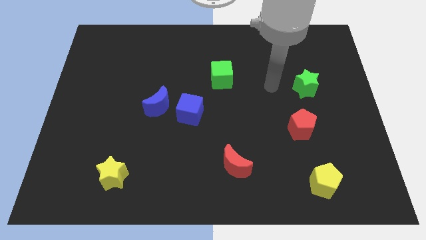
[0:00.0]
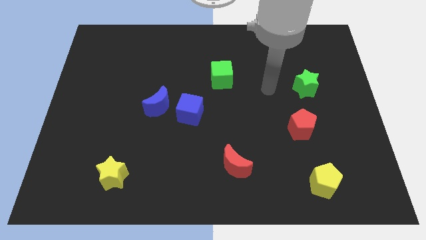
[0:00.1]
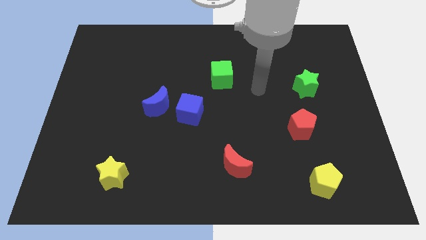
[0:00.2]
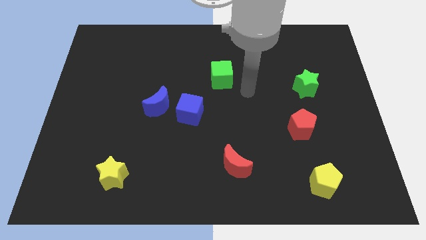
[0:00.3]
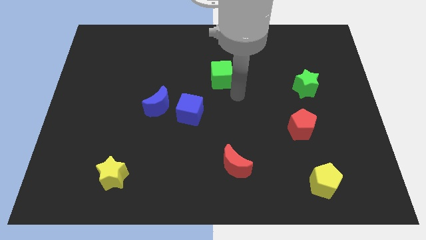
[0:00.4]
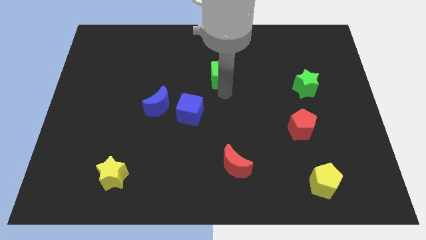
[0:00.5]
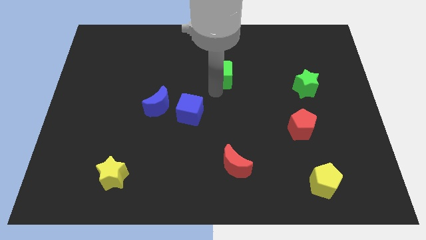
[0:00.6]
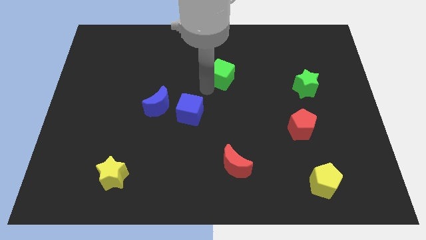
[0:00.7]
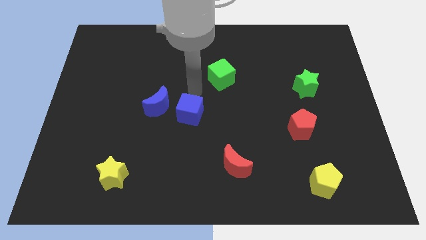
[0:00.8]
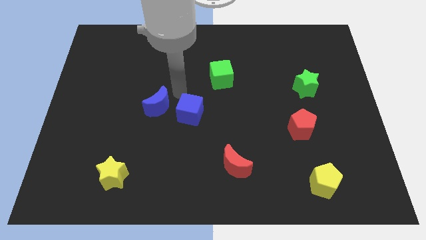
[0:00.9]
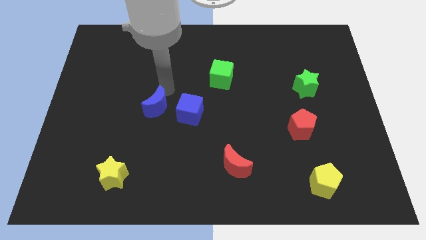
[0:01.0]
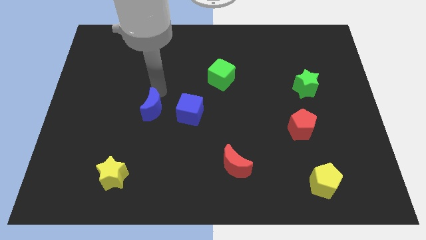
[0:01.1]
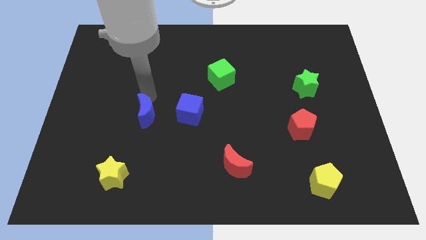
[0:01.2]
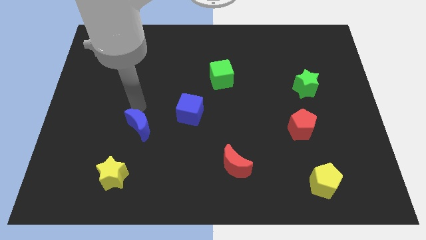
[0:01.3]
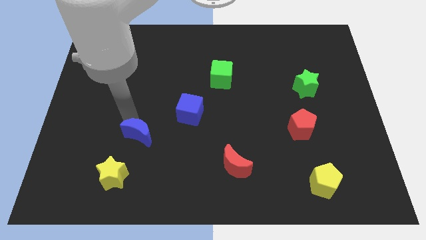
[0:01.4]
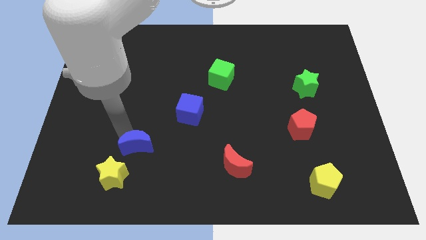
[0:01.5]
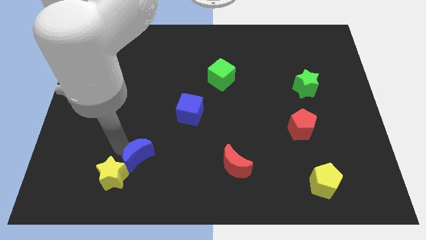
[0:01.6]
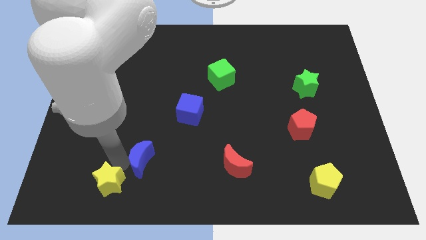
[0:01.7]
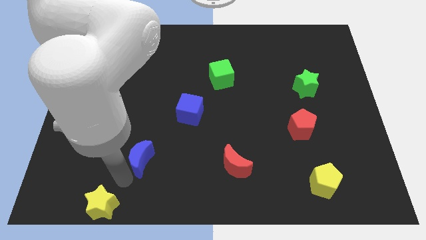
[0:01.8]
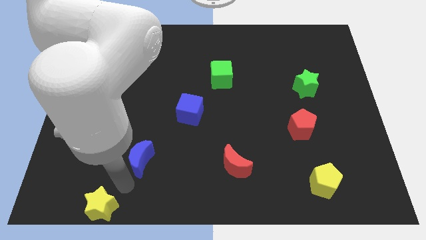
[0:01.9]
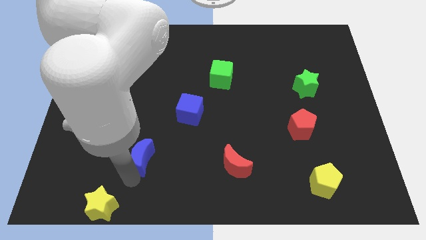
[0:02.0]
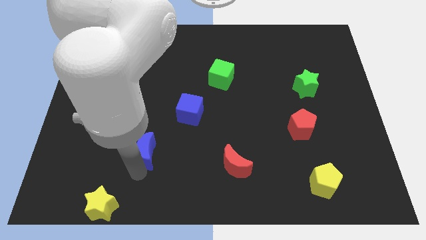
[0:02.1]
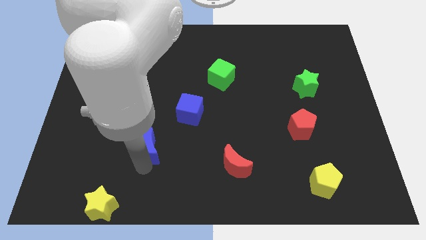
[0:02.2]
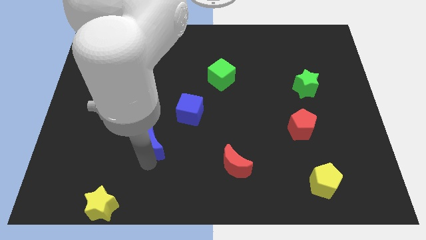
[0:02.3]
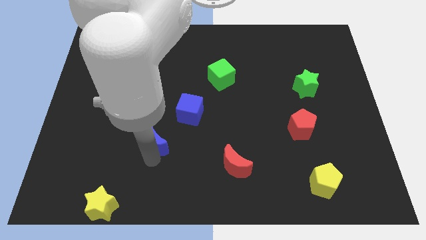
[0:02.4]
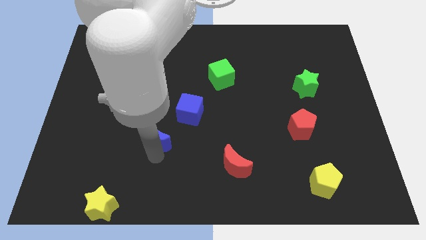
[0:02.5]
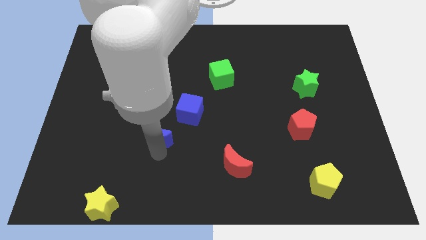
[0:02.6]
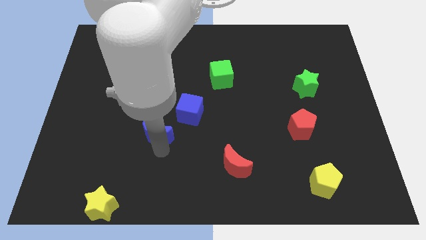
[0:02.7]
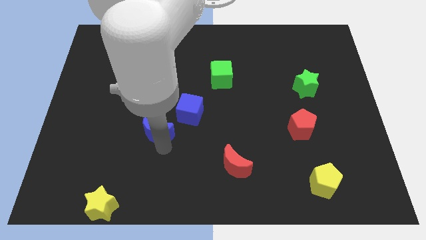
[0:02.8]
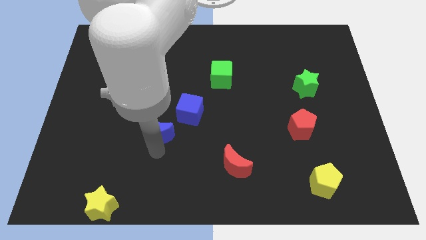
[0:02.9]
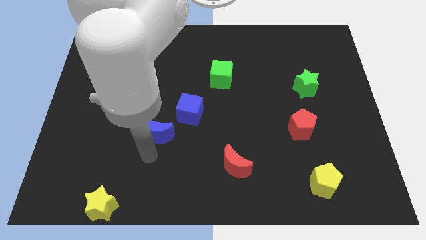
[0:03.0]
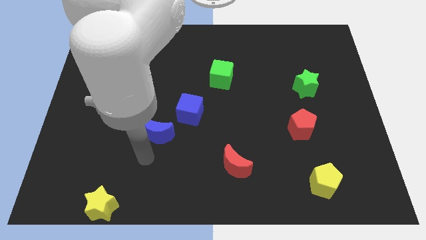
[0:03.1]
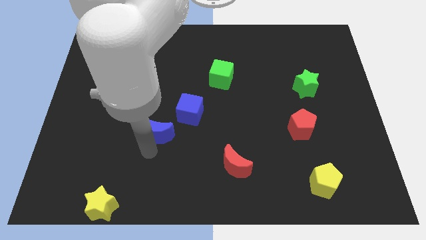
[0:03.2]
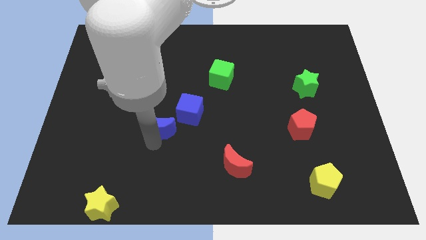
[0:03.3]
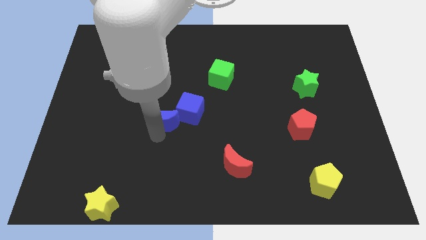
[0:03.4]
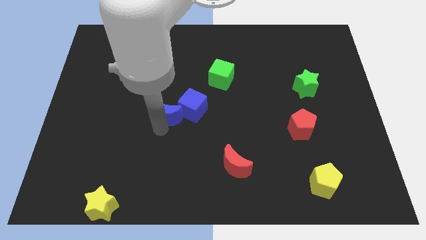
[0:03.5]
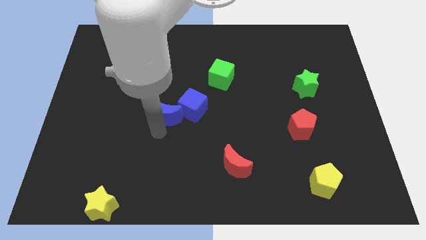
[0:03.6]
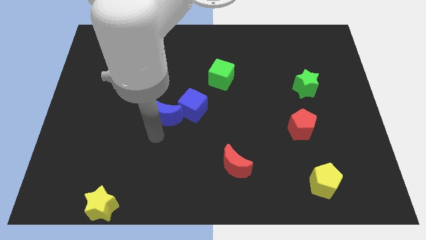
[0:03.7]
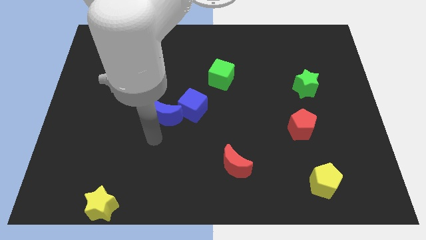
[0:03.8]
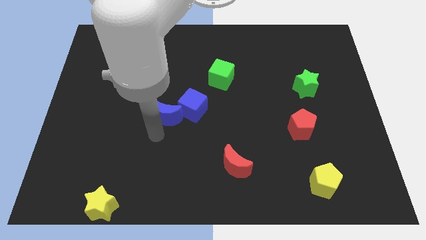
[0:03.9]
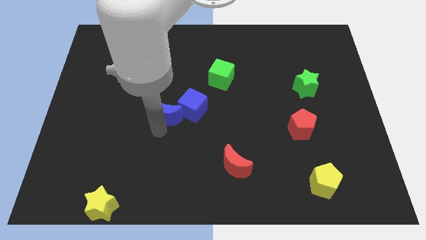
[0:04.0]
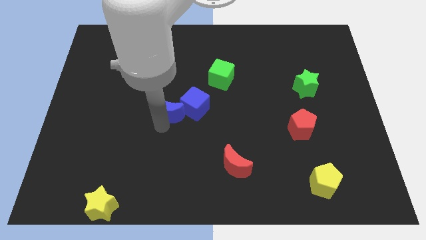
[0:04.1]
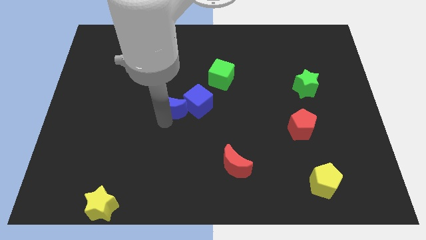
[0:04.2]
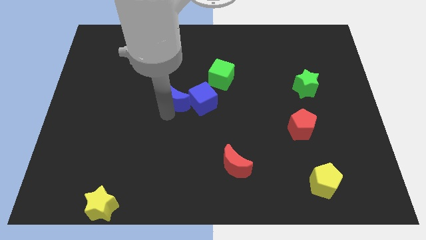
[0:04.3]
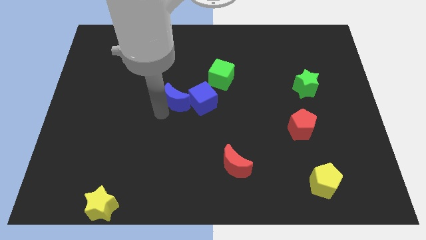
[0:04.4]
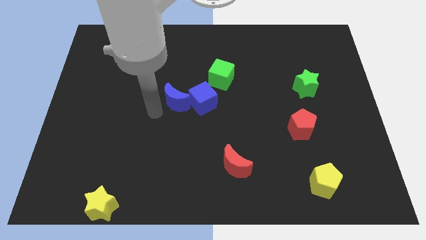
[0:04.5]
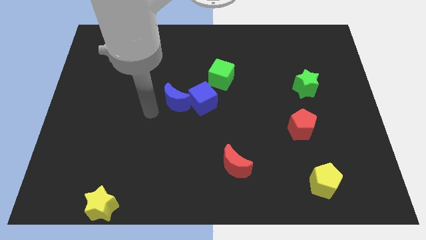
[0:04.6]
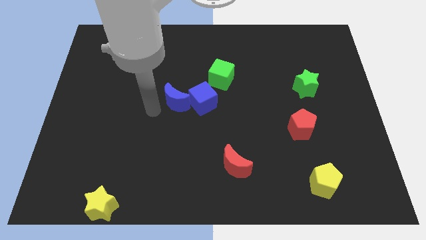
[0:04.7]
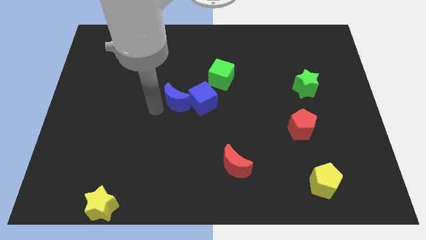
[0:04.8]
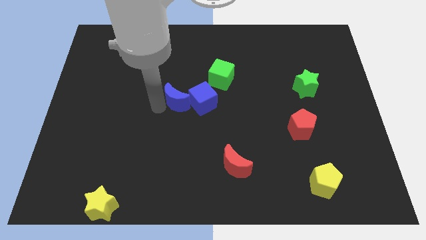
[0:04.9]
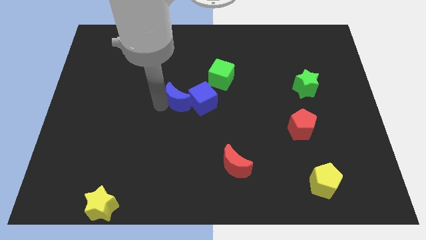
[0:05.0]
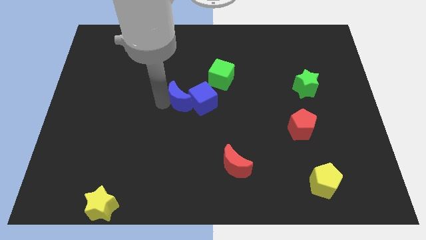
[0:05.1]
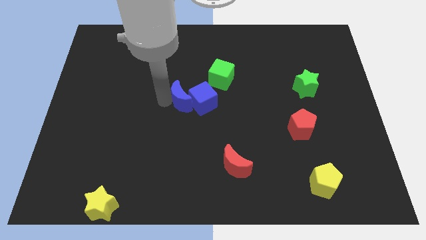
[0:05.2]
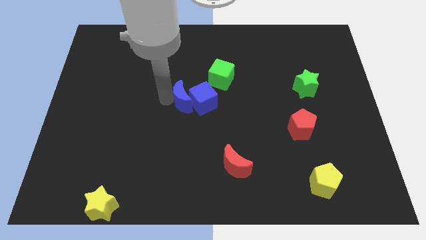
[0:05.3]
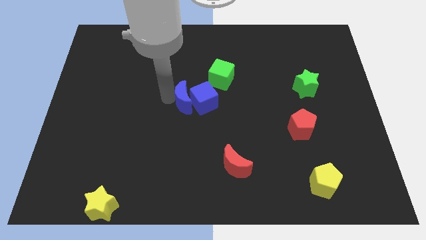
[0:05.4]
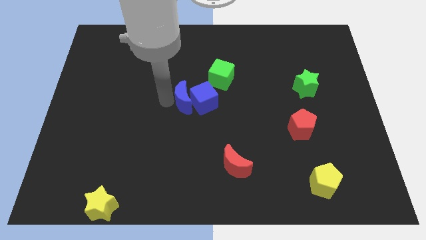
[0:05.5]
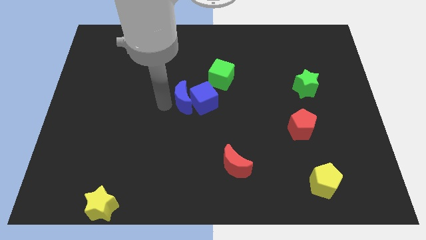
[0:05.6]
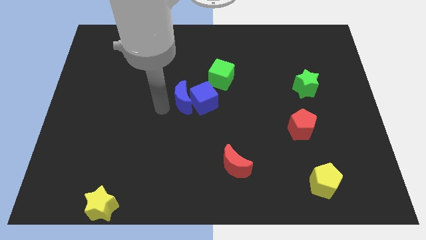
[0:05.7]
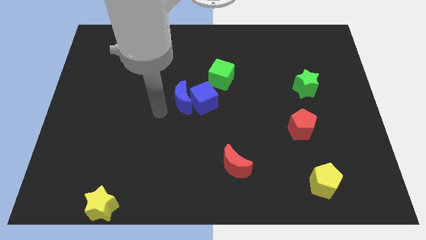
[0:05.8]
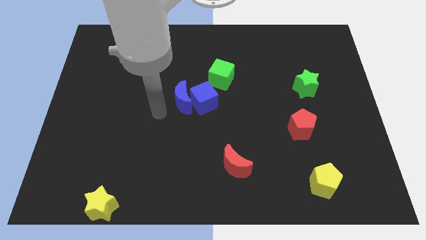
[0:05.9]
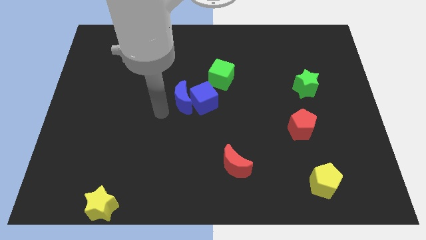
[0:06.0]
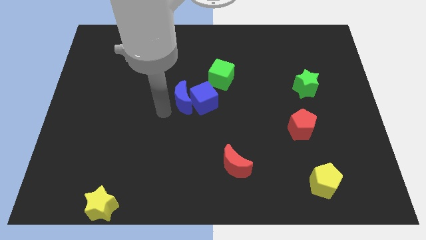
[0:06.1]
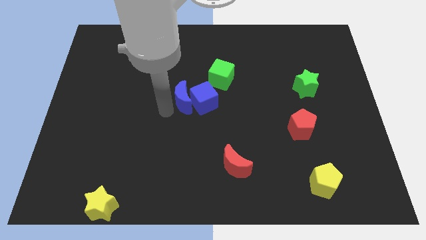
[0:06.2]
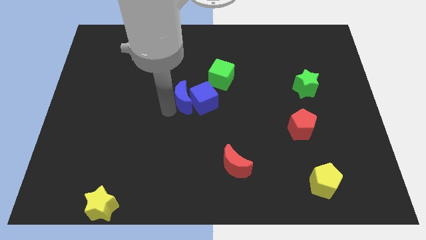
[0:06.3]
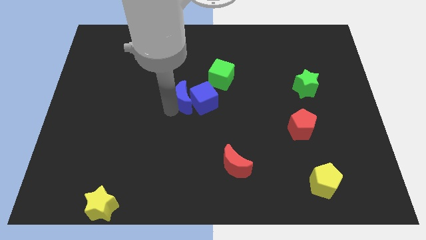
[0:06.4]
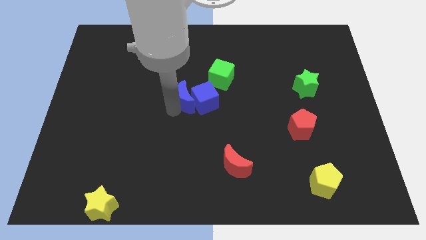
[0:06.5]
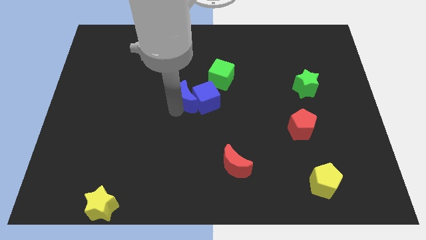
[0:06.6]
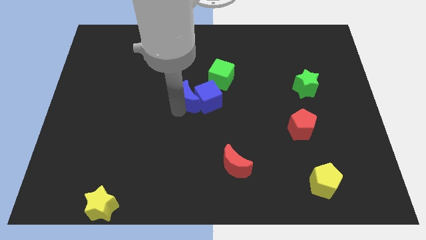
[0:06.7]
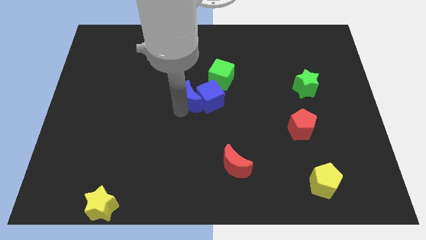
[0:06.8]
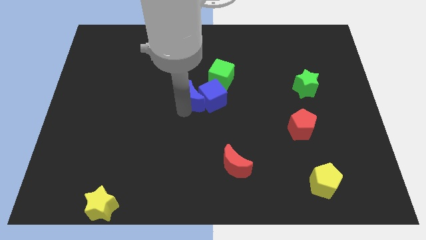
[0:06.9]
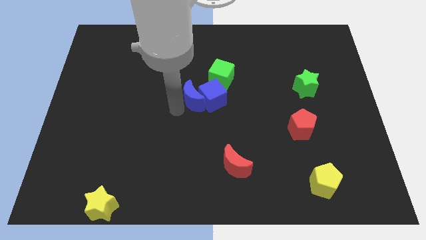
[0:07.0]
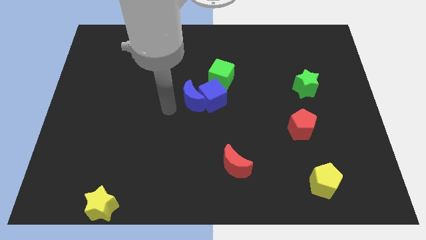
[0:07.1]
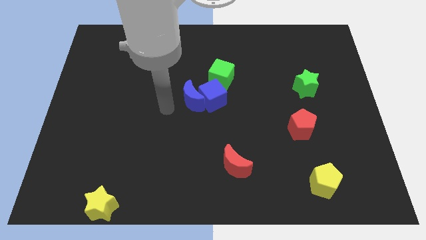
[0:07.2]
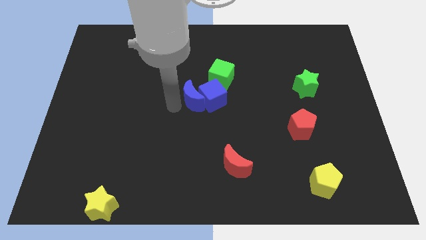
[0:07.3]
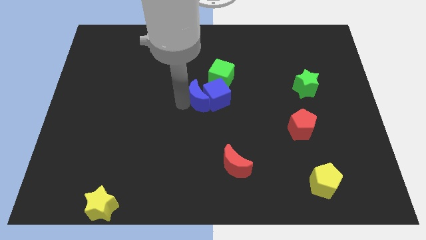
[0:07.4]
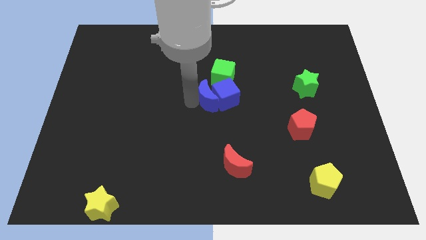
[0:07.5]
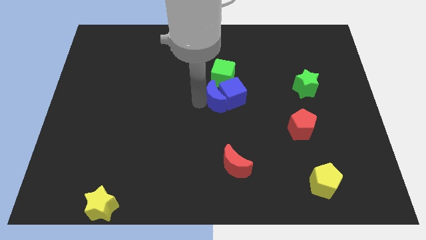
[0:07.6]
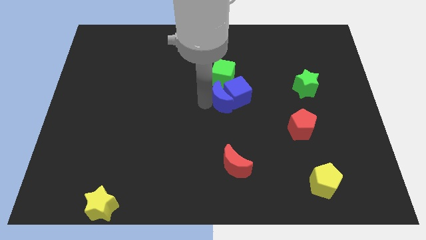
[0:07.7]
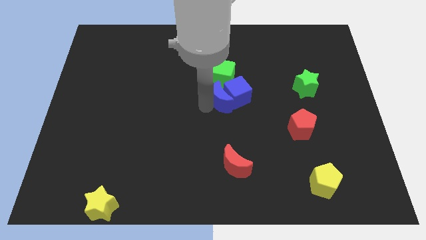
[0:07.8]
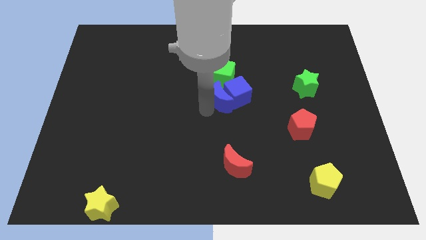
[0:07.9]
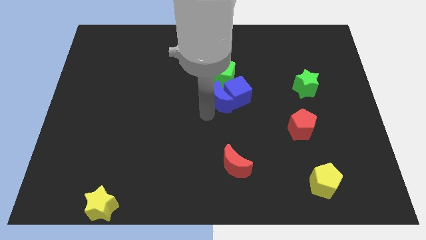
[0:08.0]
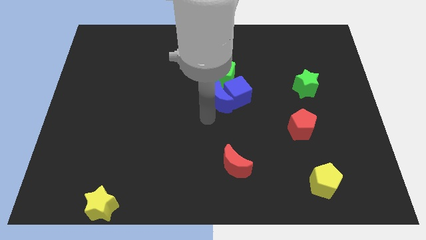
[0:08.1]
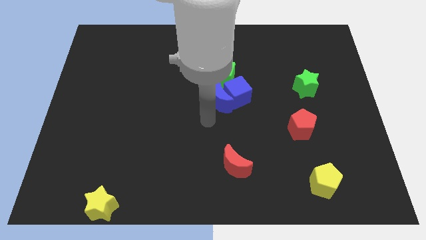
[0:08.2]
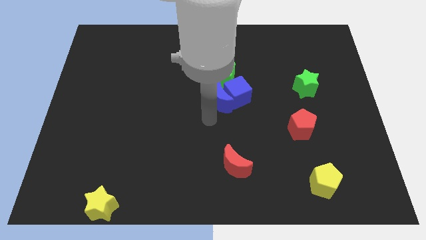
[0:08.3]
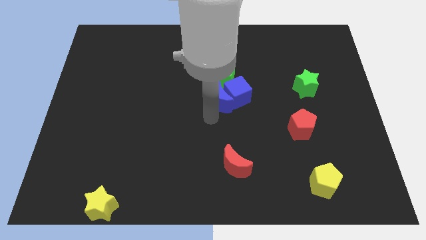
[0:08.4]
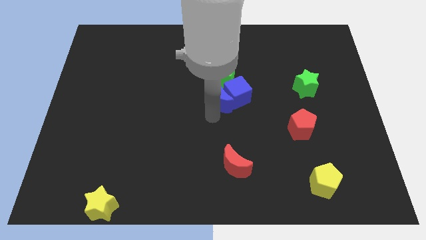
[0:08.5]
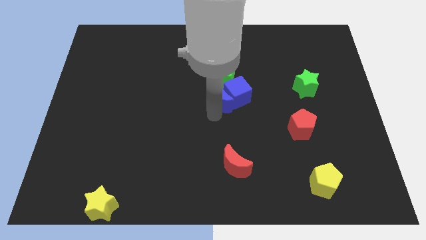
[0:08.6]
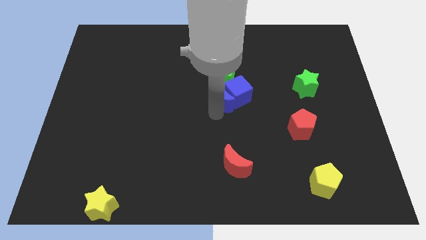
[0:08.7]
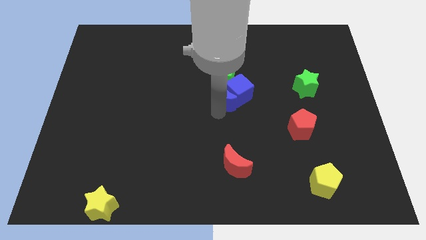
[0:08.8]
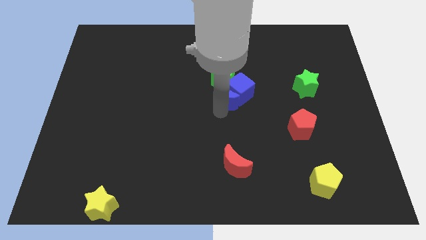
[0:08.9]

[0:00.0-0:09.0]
put the blue moon diagonally down and to the right of the green cube
